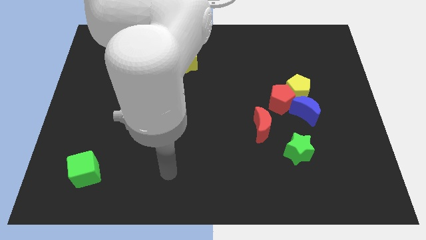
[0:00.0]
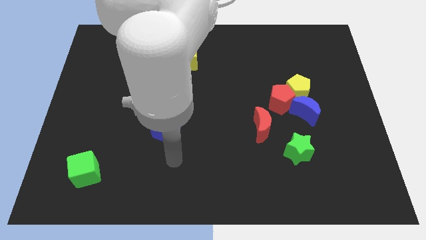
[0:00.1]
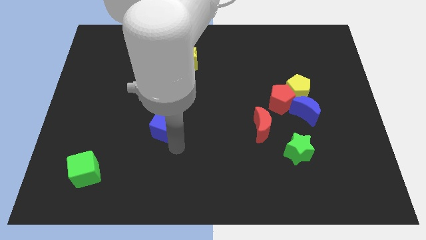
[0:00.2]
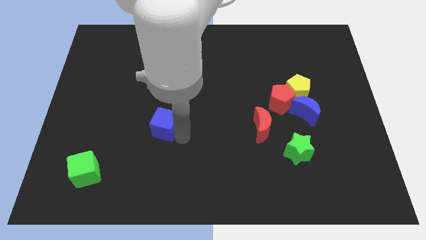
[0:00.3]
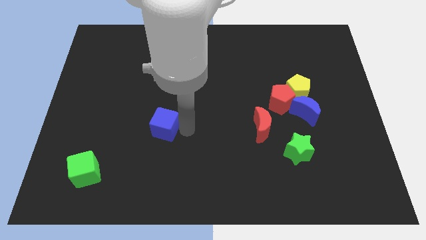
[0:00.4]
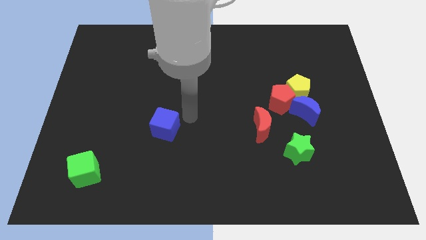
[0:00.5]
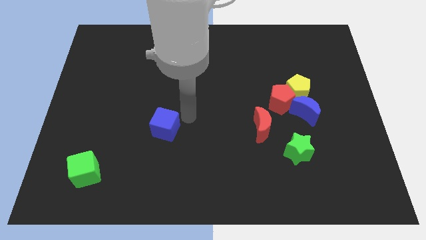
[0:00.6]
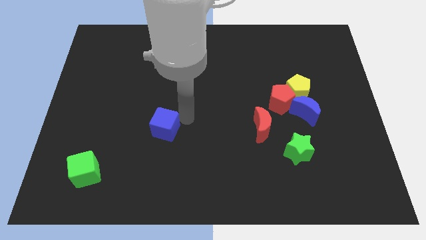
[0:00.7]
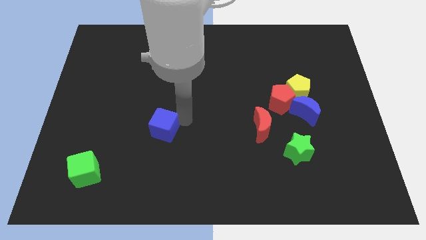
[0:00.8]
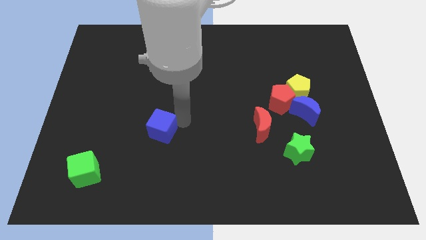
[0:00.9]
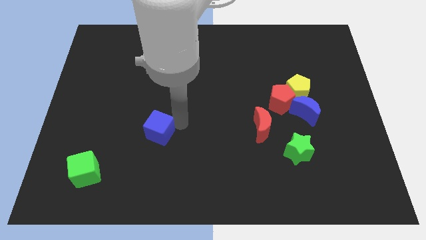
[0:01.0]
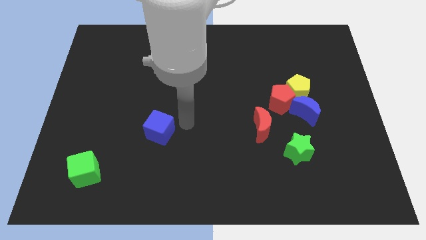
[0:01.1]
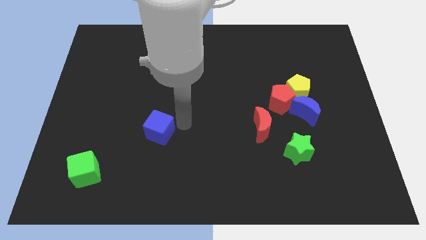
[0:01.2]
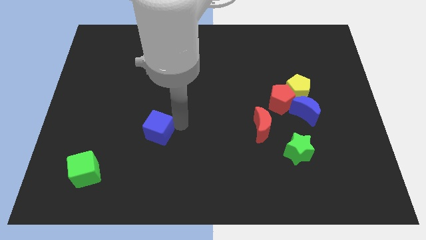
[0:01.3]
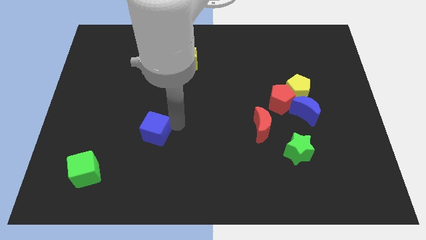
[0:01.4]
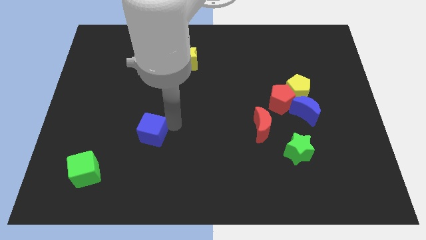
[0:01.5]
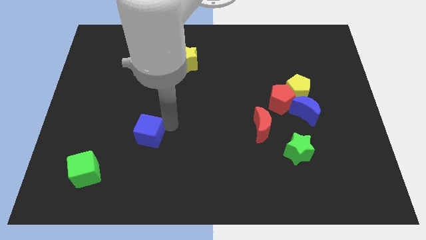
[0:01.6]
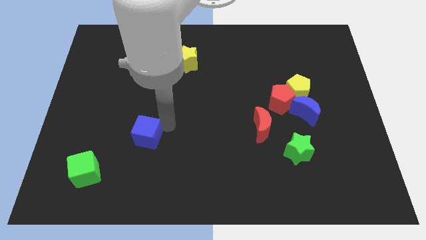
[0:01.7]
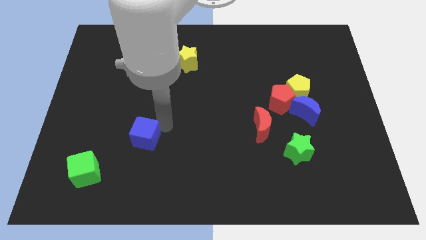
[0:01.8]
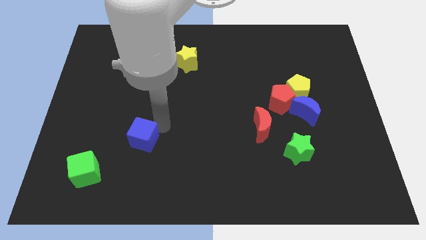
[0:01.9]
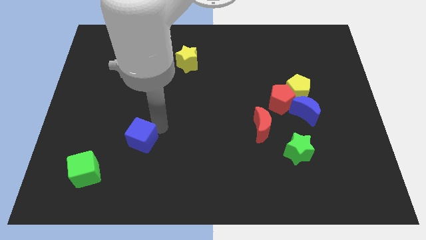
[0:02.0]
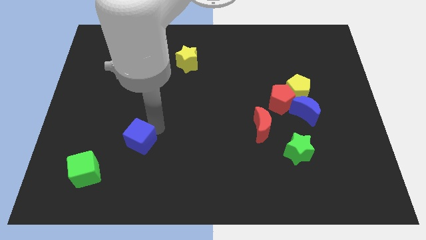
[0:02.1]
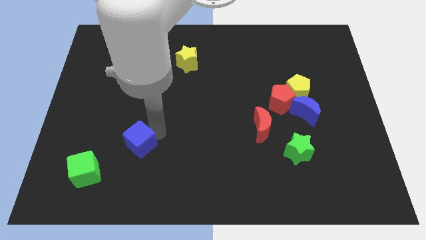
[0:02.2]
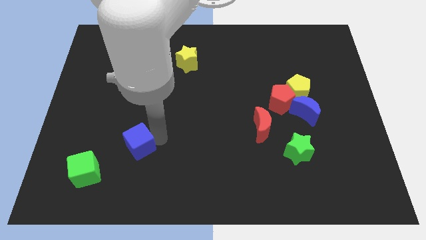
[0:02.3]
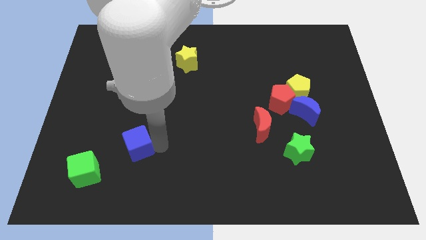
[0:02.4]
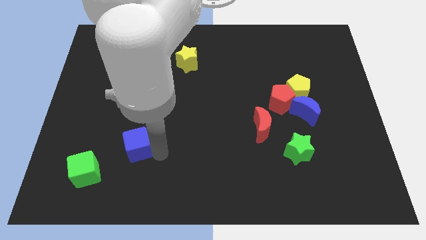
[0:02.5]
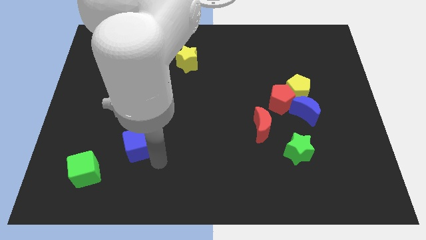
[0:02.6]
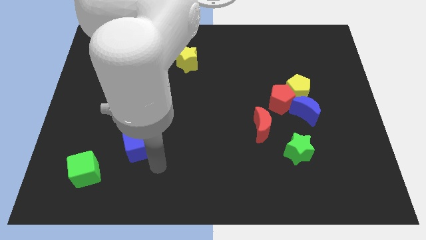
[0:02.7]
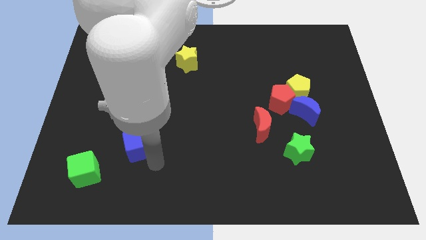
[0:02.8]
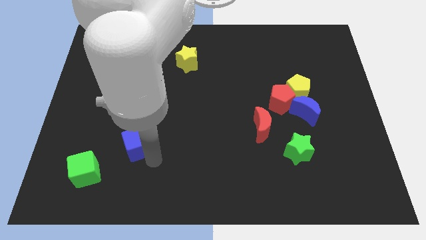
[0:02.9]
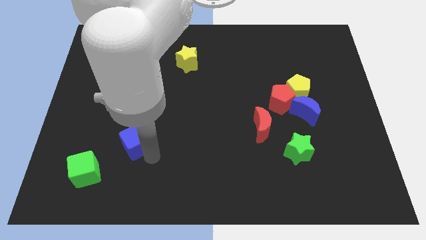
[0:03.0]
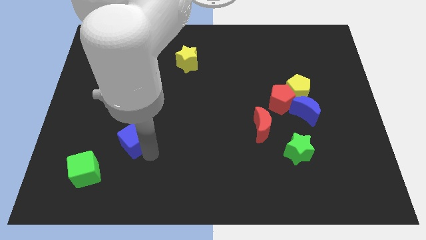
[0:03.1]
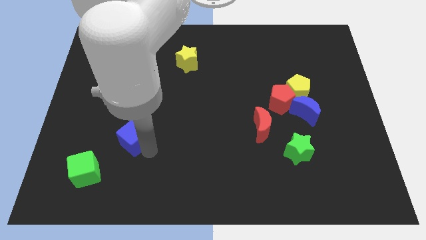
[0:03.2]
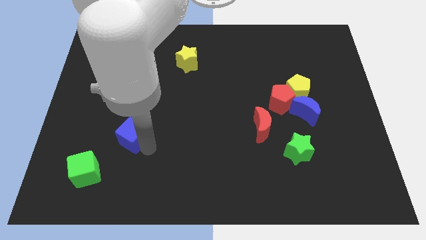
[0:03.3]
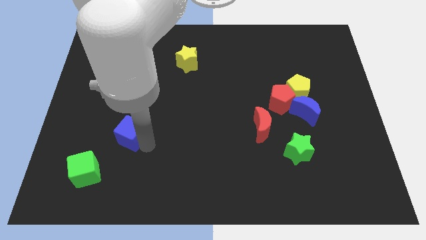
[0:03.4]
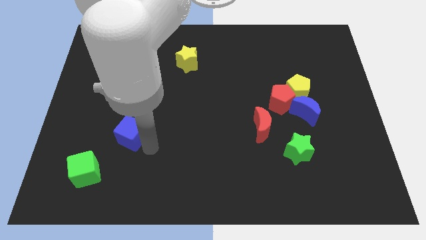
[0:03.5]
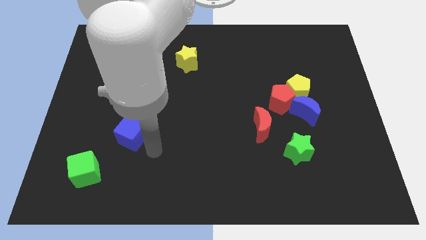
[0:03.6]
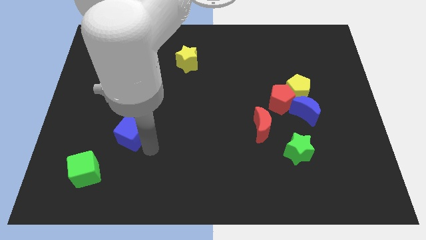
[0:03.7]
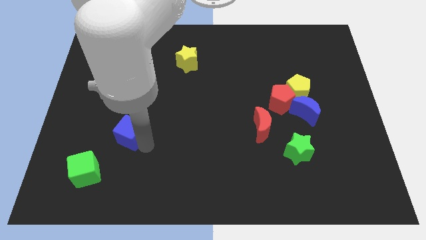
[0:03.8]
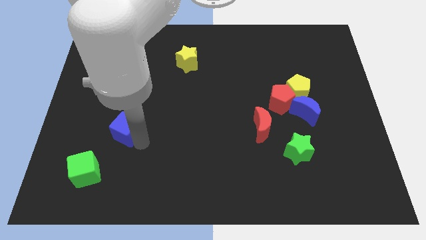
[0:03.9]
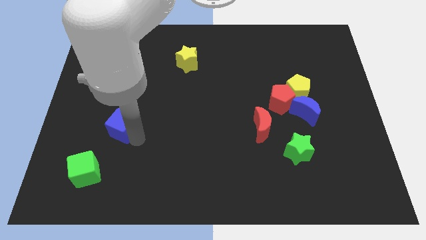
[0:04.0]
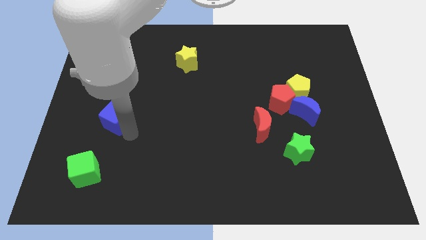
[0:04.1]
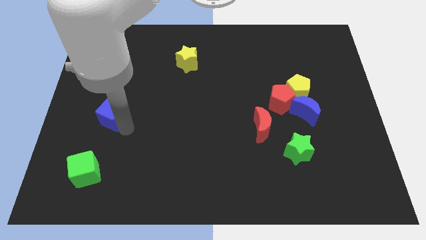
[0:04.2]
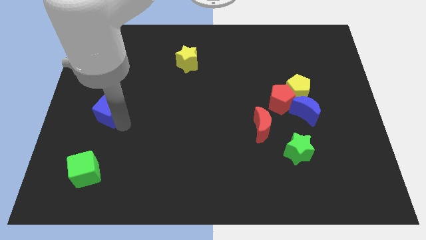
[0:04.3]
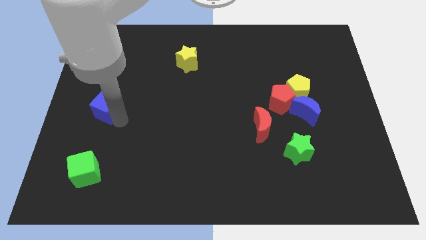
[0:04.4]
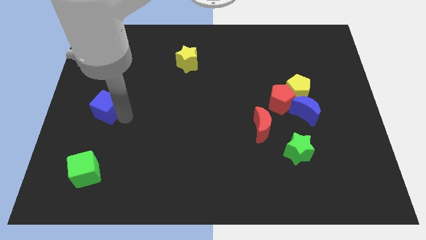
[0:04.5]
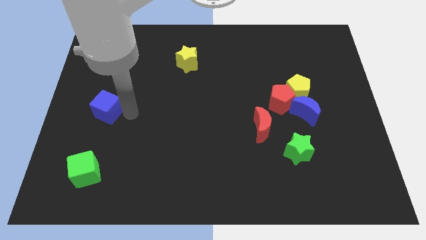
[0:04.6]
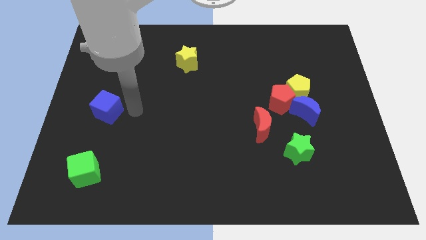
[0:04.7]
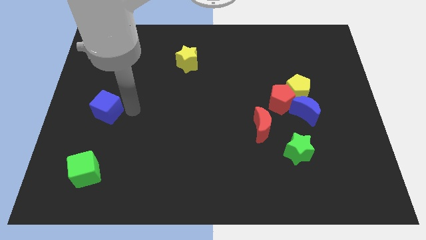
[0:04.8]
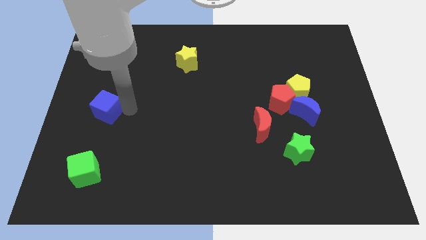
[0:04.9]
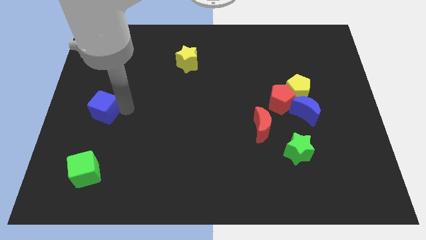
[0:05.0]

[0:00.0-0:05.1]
move the blue cube to the left side of the board
